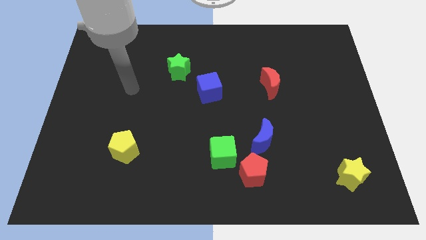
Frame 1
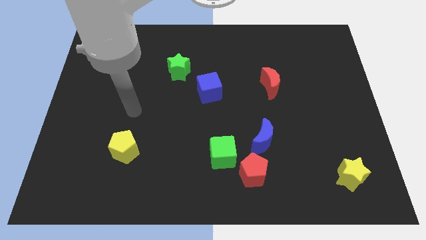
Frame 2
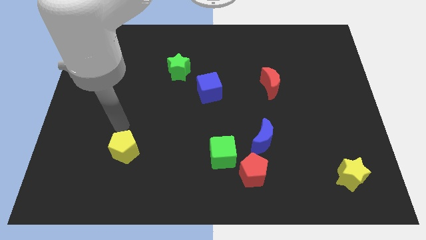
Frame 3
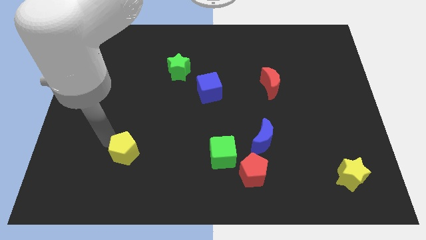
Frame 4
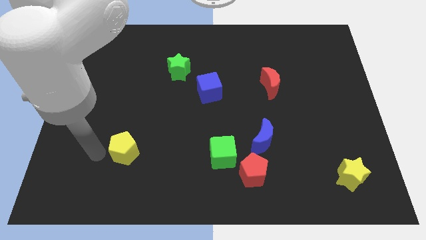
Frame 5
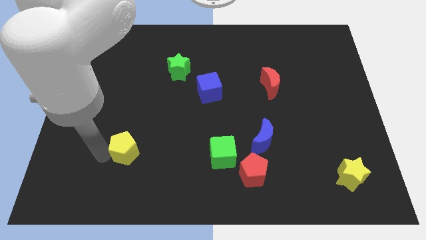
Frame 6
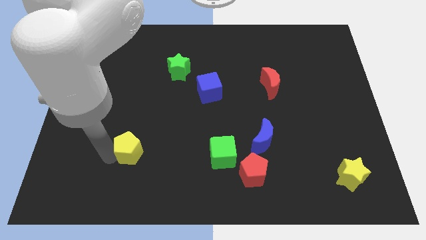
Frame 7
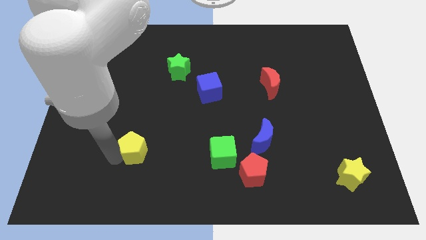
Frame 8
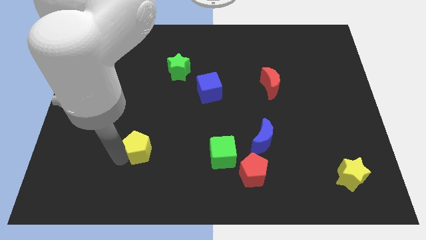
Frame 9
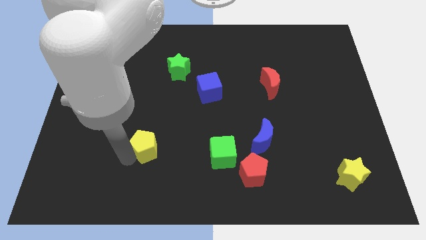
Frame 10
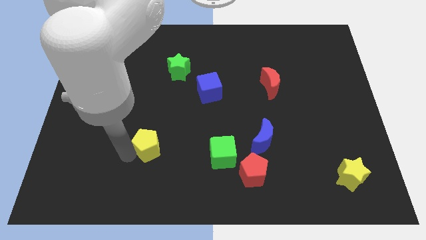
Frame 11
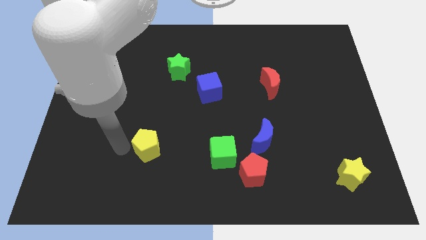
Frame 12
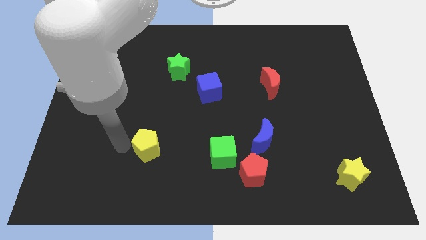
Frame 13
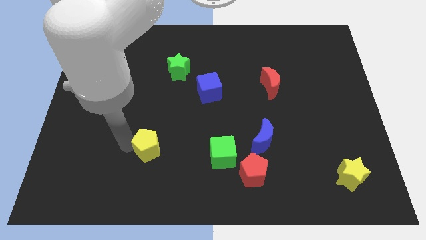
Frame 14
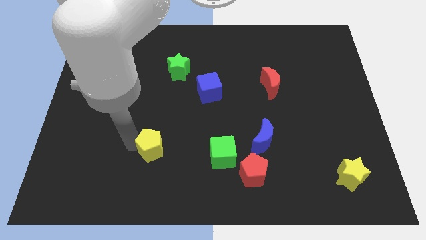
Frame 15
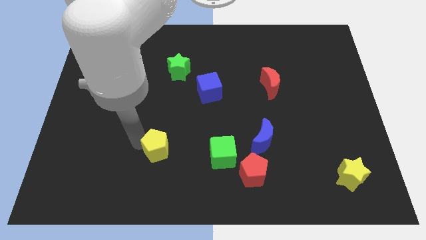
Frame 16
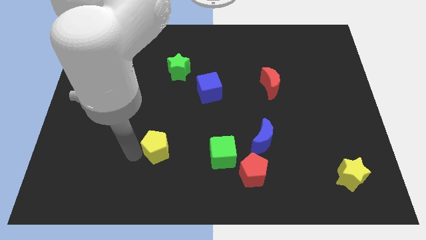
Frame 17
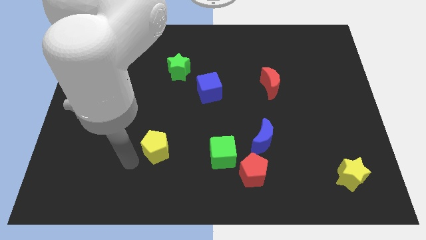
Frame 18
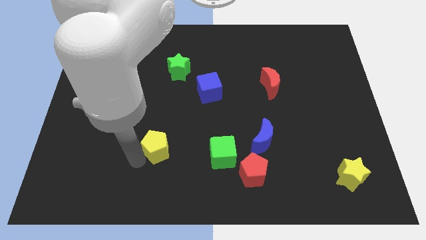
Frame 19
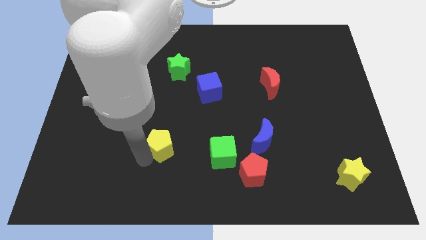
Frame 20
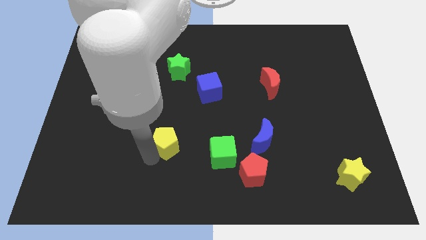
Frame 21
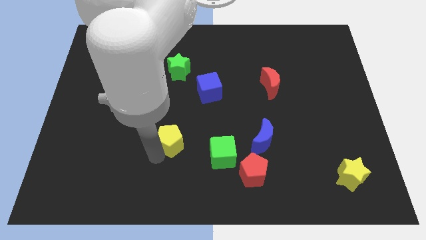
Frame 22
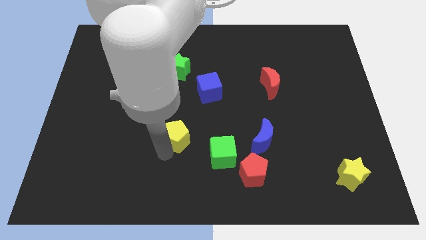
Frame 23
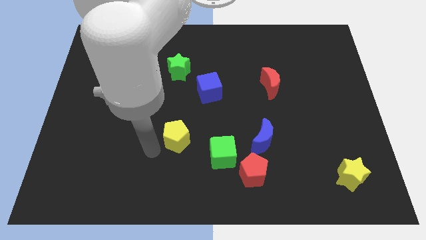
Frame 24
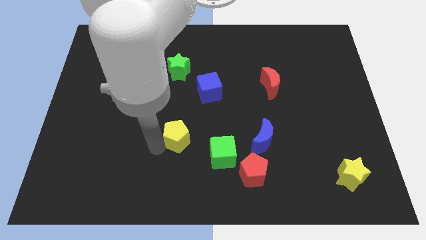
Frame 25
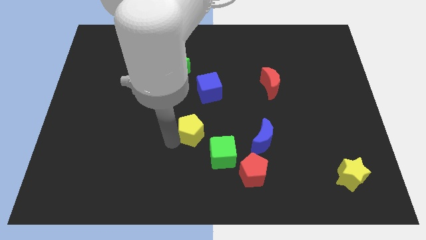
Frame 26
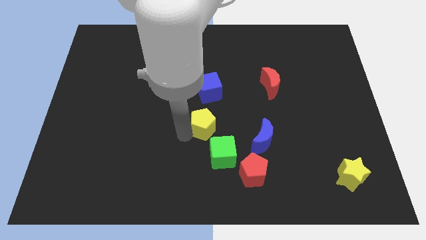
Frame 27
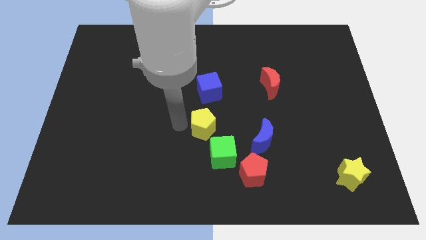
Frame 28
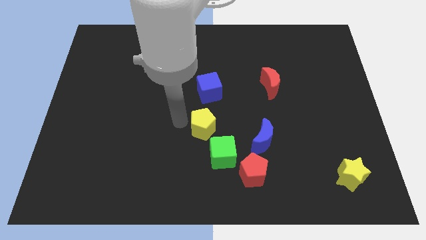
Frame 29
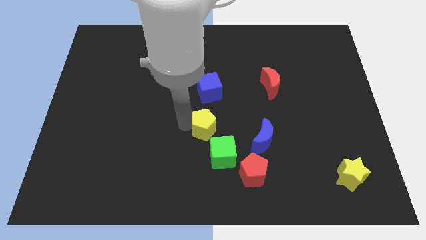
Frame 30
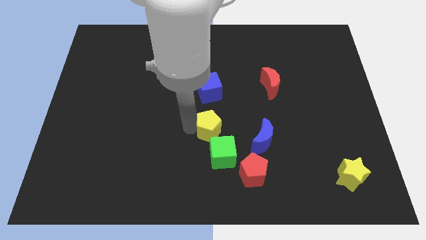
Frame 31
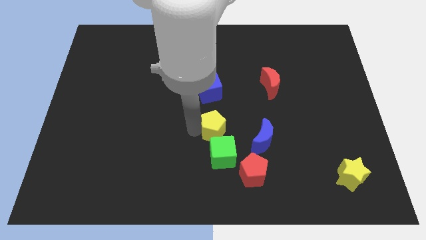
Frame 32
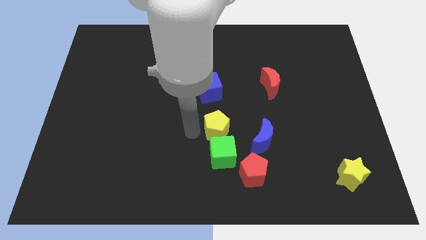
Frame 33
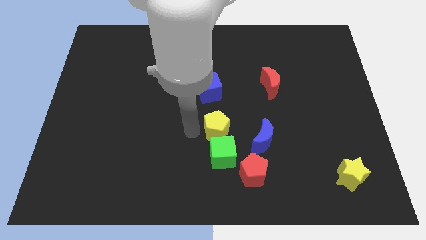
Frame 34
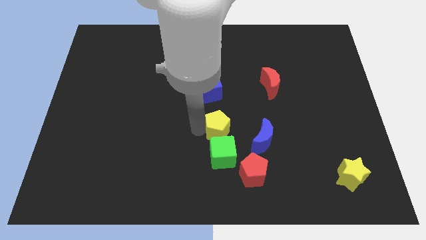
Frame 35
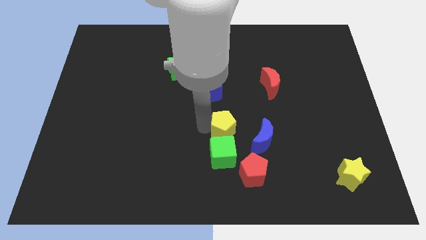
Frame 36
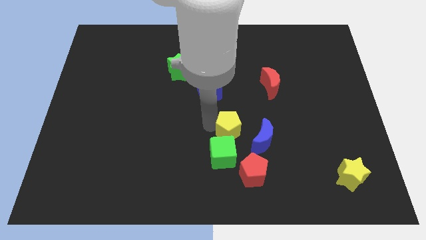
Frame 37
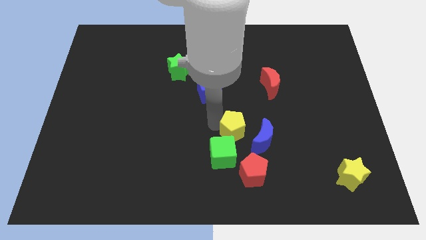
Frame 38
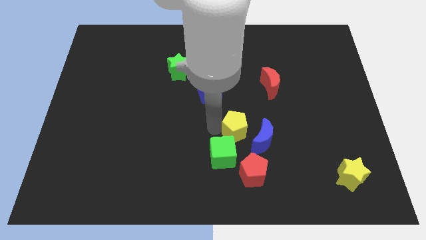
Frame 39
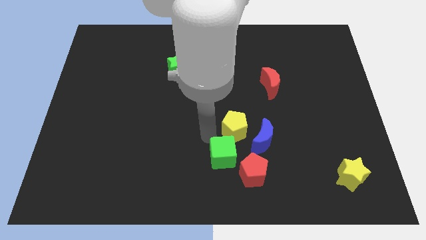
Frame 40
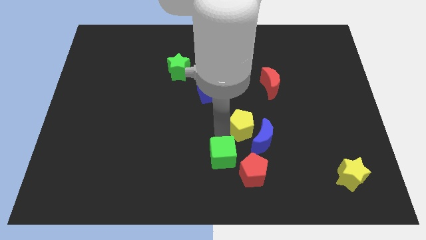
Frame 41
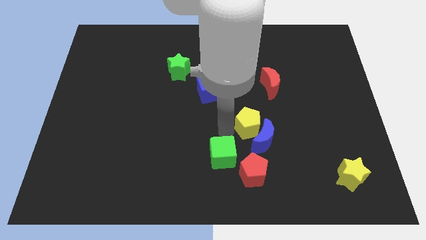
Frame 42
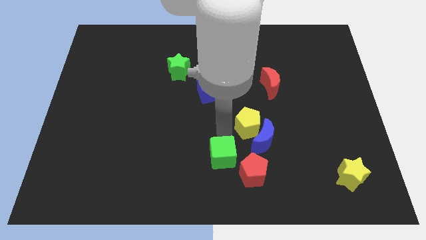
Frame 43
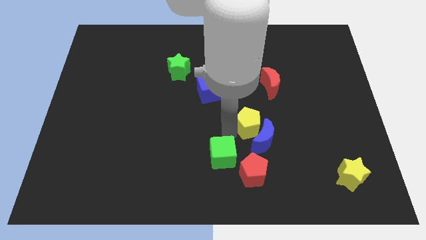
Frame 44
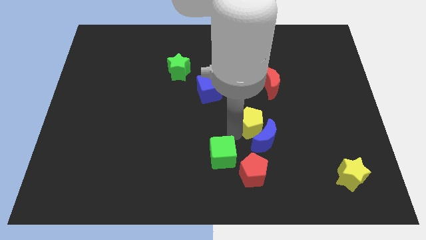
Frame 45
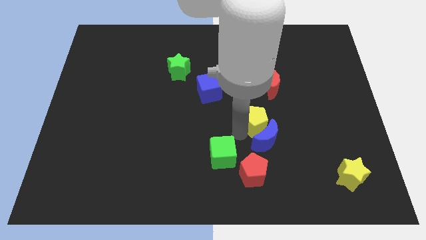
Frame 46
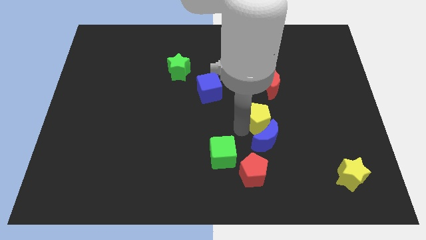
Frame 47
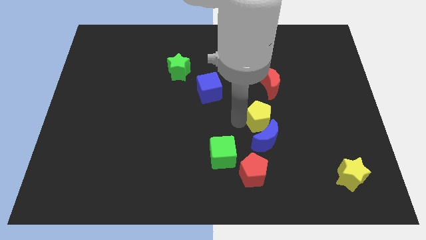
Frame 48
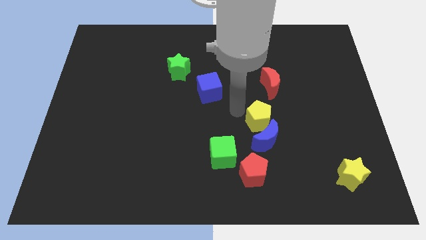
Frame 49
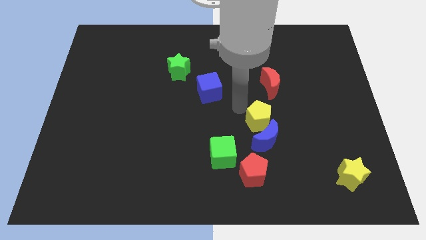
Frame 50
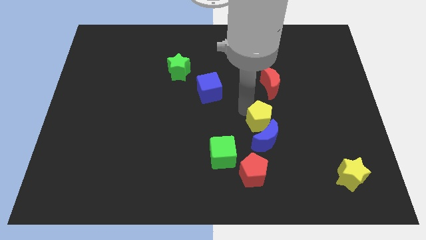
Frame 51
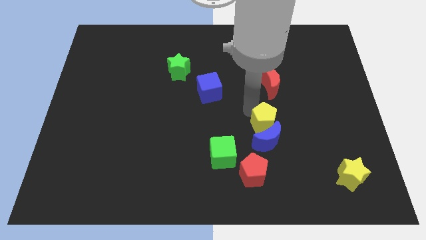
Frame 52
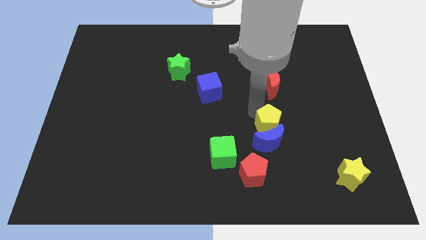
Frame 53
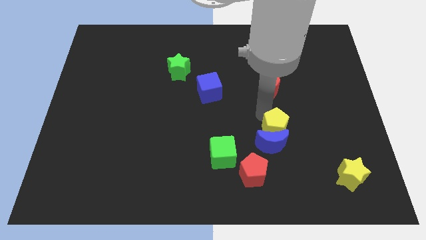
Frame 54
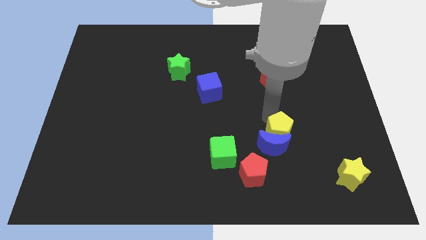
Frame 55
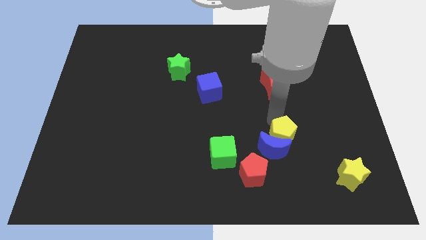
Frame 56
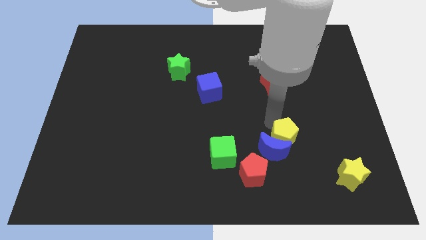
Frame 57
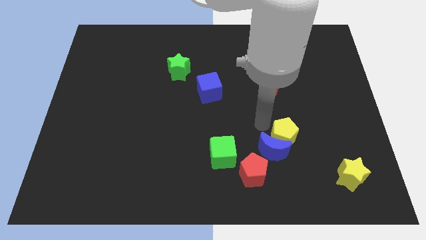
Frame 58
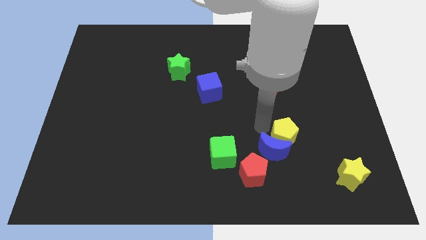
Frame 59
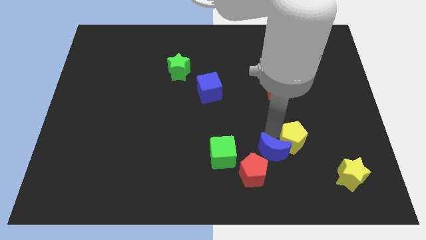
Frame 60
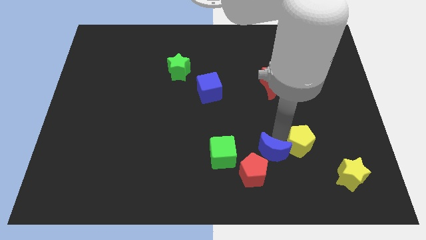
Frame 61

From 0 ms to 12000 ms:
move the yellow pentagon to the top left side of the yellow star

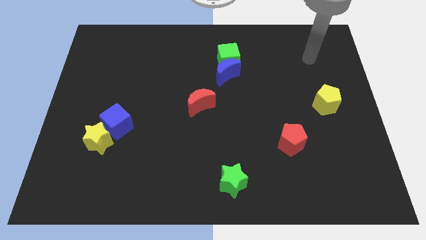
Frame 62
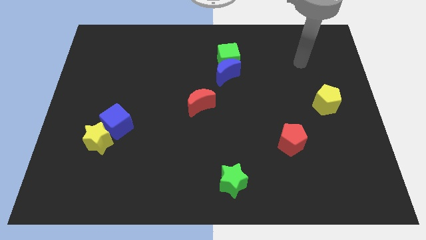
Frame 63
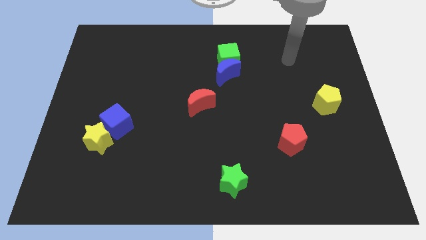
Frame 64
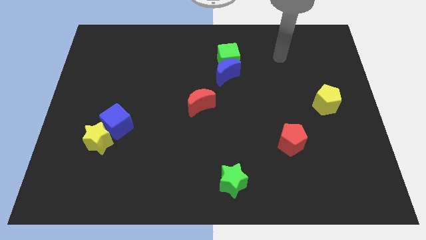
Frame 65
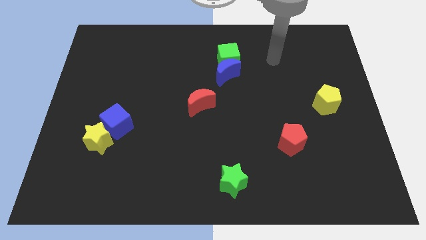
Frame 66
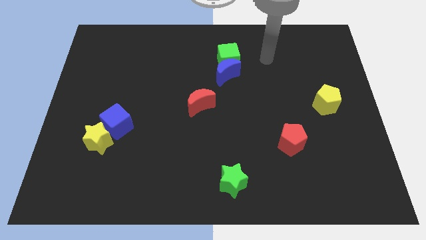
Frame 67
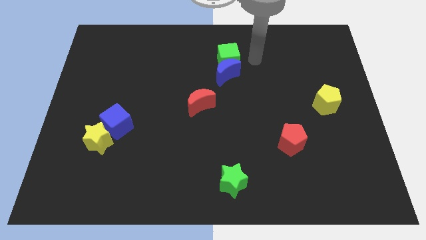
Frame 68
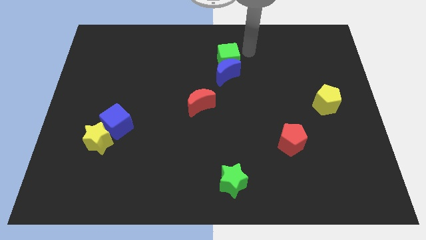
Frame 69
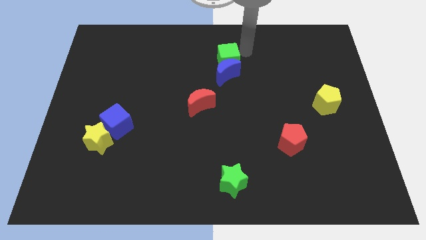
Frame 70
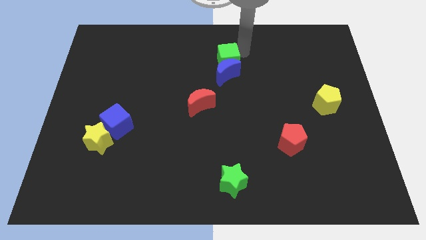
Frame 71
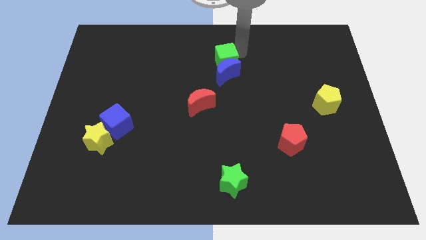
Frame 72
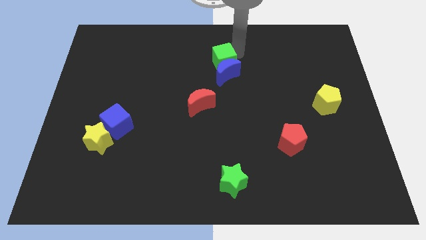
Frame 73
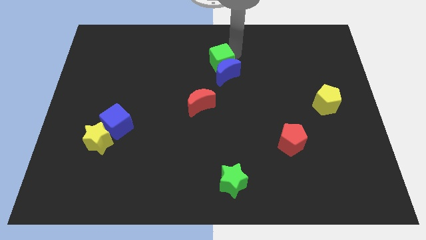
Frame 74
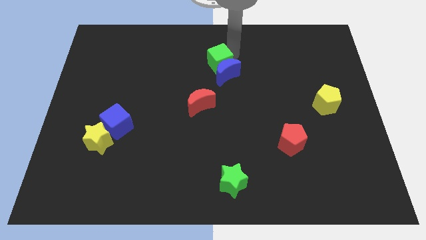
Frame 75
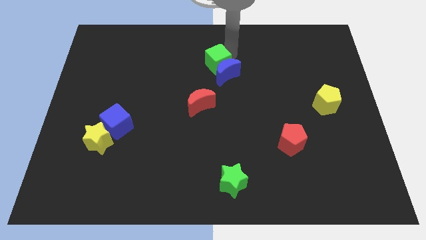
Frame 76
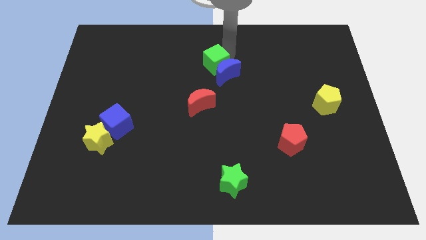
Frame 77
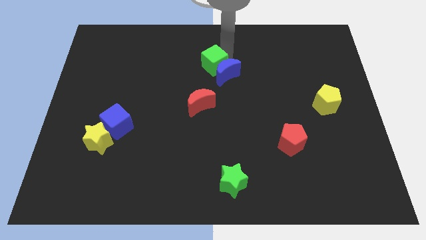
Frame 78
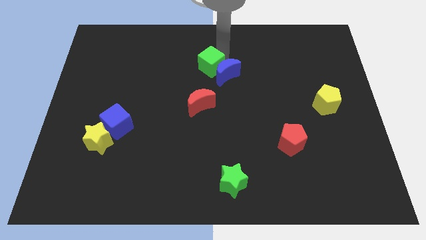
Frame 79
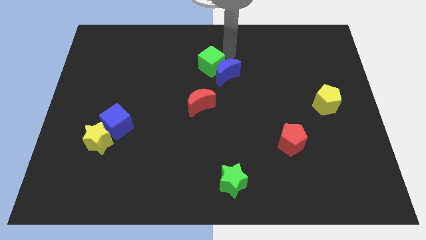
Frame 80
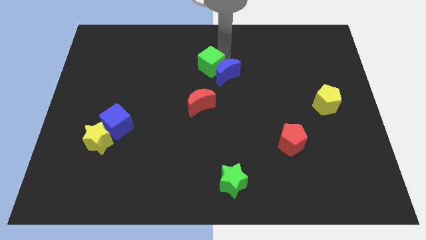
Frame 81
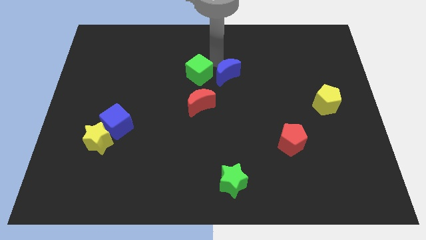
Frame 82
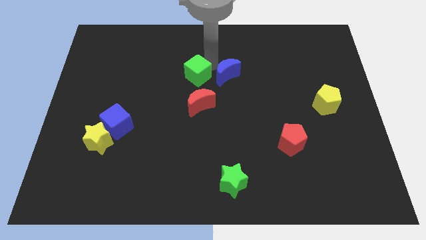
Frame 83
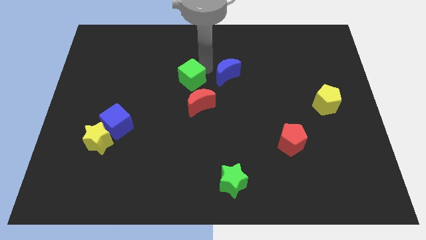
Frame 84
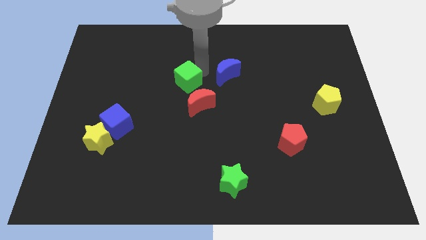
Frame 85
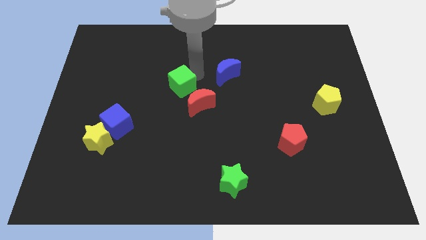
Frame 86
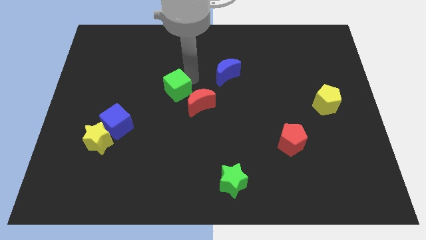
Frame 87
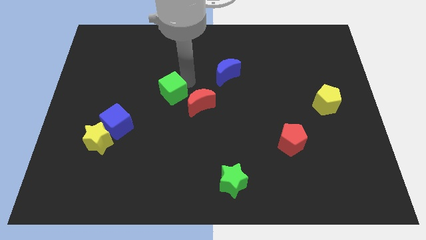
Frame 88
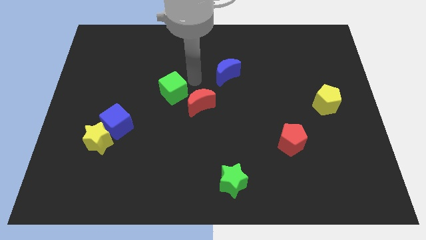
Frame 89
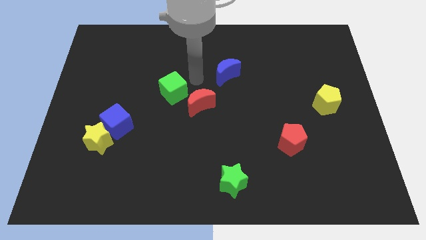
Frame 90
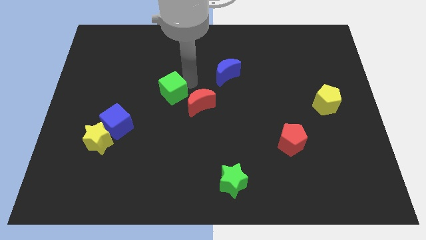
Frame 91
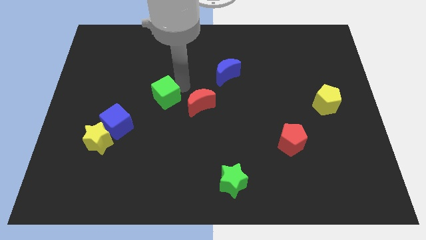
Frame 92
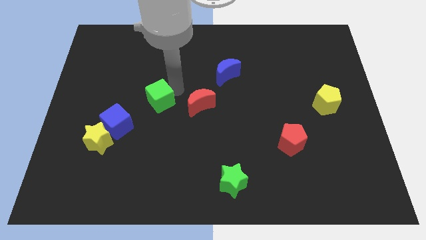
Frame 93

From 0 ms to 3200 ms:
push the green cube to the top right side of the blue cube
